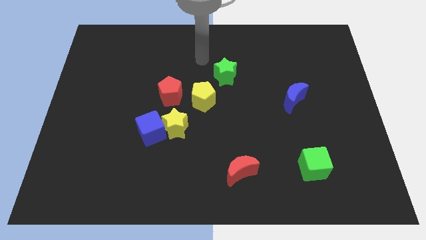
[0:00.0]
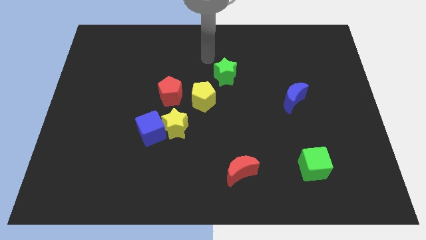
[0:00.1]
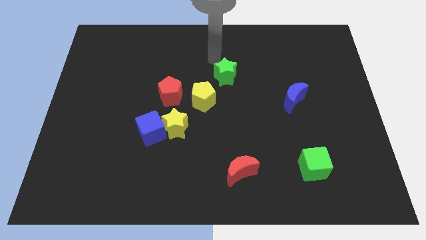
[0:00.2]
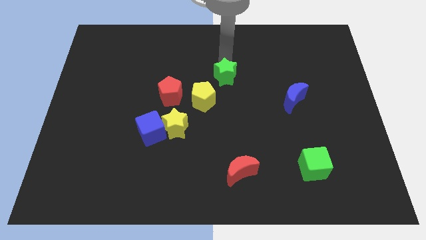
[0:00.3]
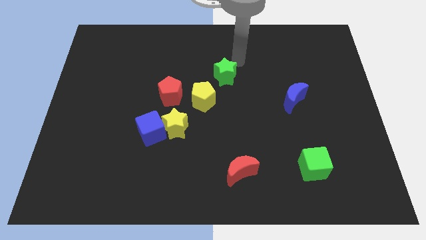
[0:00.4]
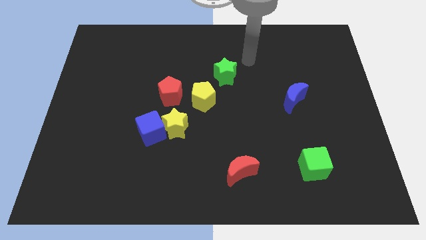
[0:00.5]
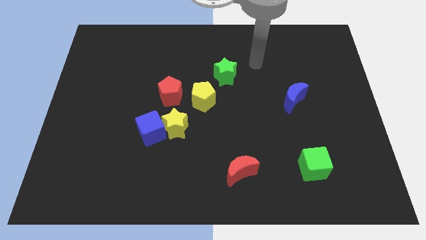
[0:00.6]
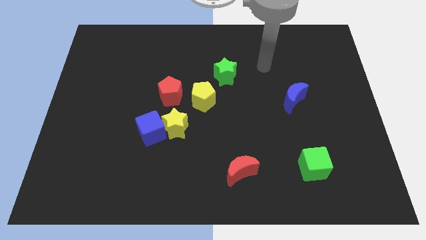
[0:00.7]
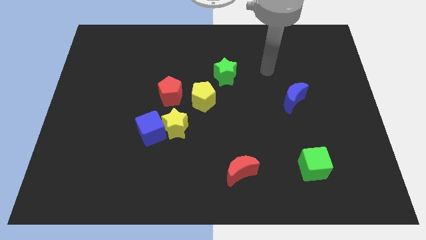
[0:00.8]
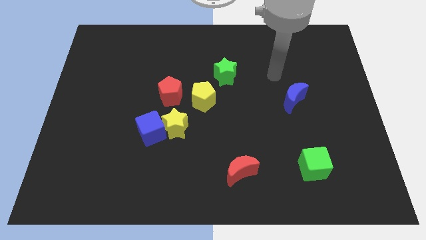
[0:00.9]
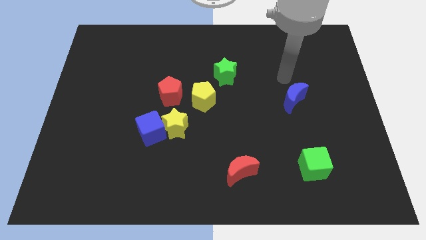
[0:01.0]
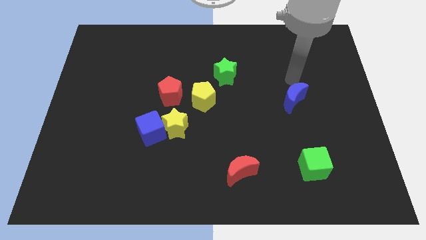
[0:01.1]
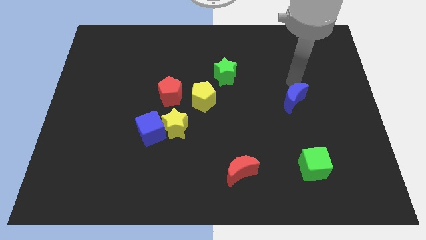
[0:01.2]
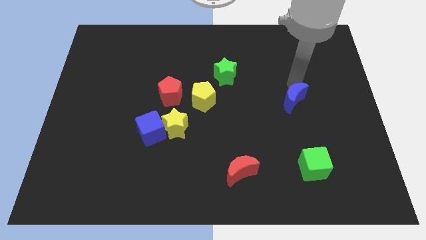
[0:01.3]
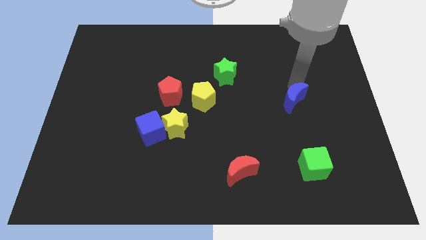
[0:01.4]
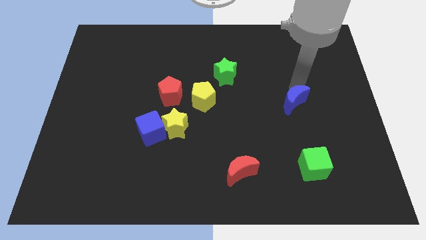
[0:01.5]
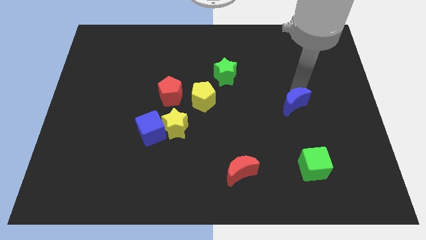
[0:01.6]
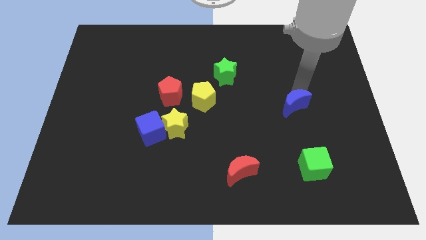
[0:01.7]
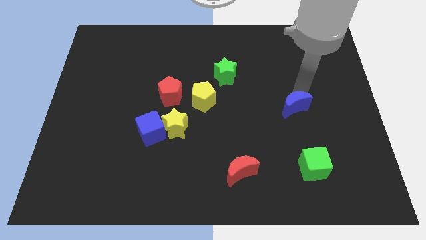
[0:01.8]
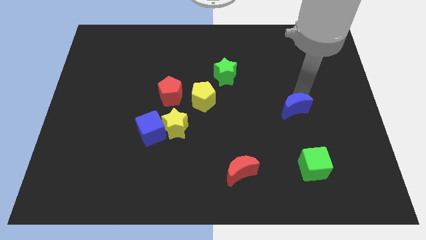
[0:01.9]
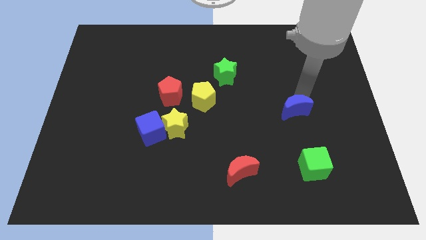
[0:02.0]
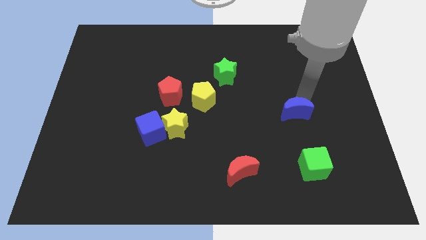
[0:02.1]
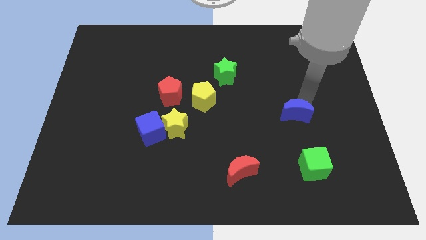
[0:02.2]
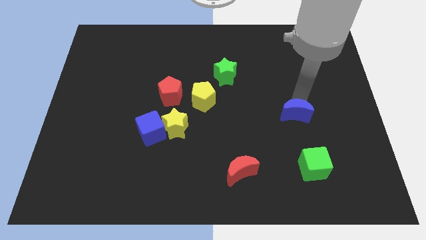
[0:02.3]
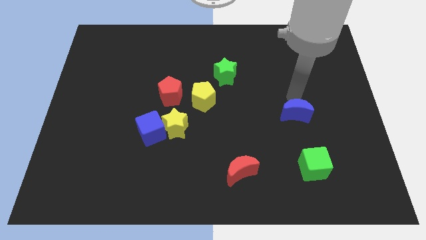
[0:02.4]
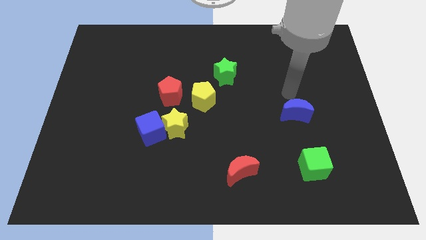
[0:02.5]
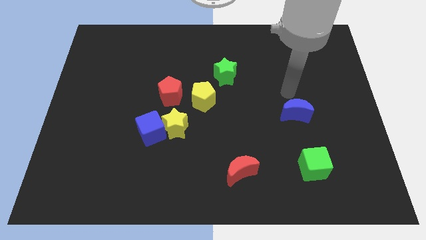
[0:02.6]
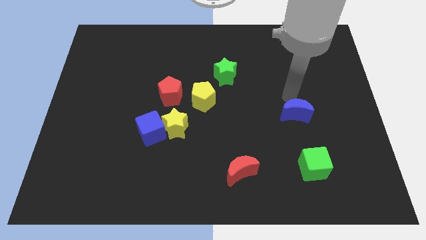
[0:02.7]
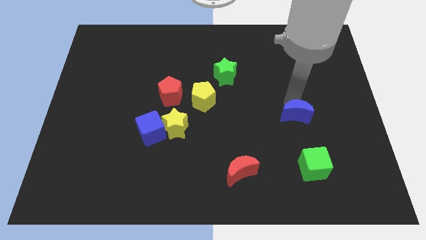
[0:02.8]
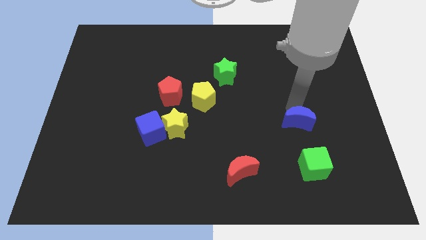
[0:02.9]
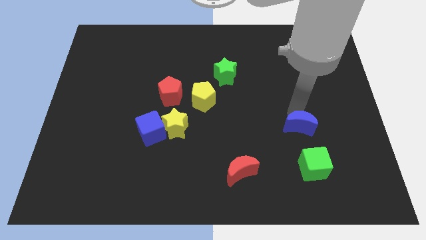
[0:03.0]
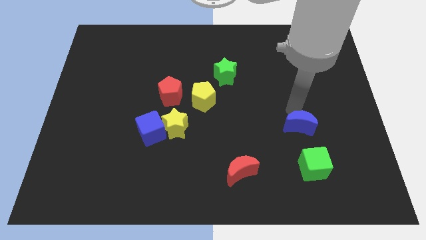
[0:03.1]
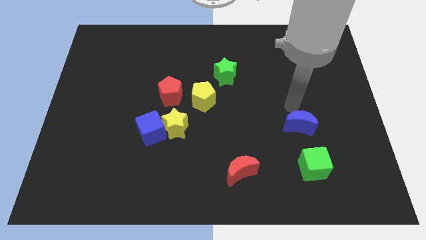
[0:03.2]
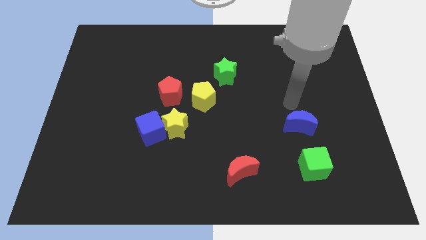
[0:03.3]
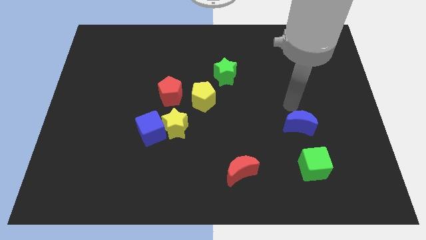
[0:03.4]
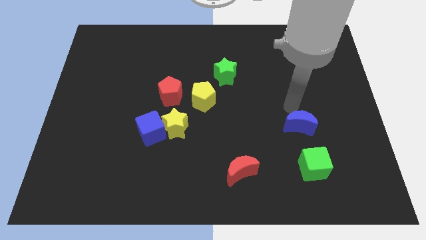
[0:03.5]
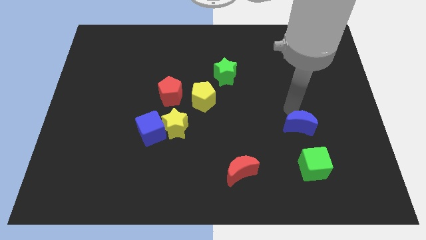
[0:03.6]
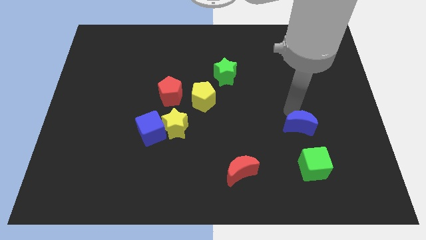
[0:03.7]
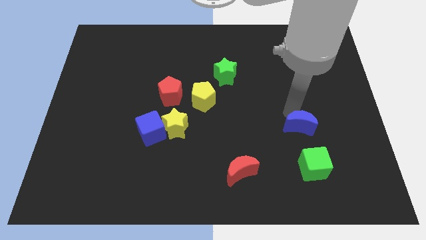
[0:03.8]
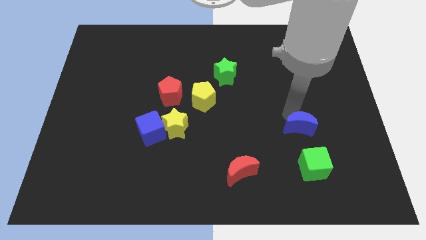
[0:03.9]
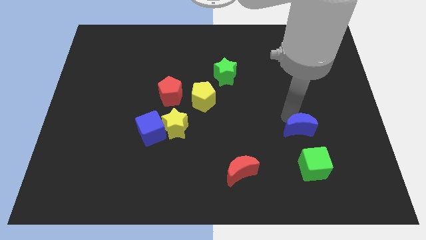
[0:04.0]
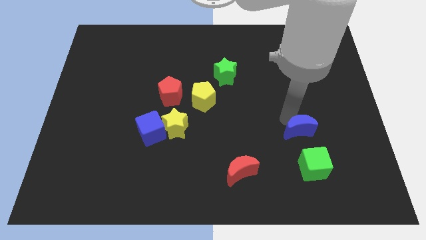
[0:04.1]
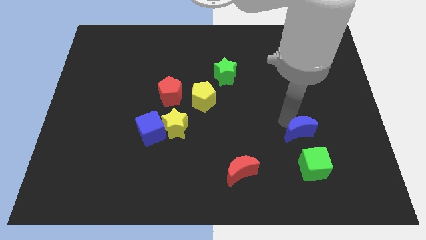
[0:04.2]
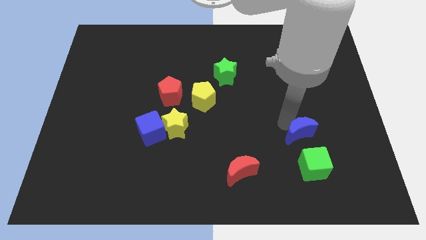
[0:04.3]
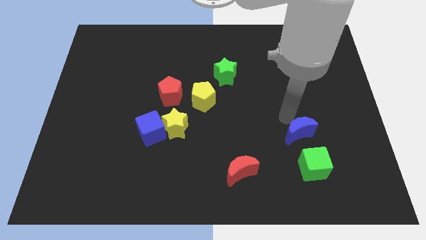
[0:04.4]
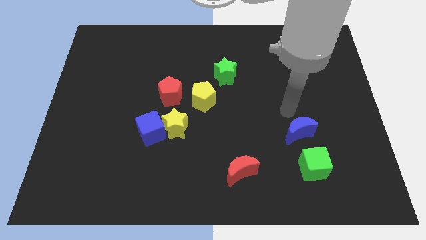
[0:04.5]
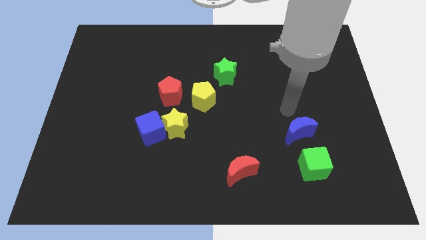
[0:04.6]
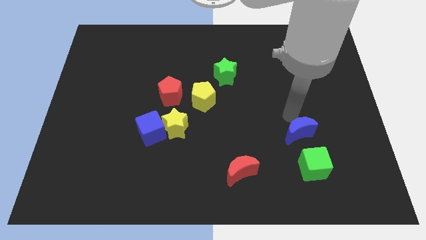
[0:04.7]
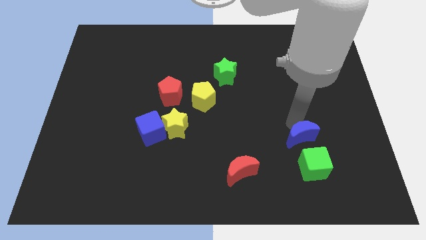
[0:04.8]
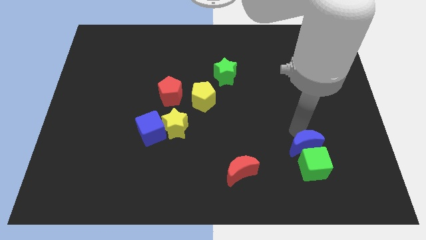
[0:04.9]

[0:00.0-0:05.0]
slide the blue moon close to the green cube

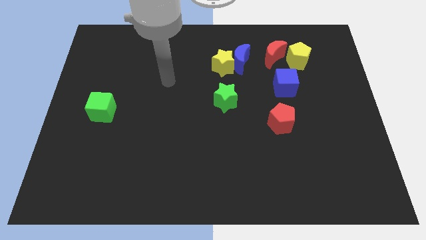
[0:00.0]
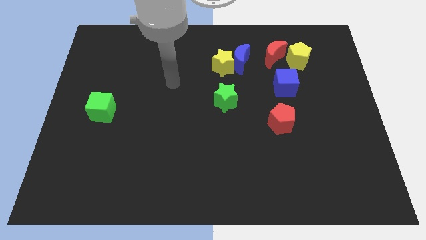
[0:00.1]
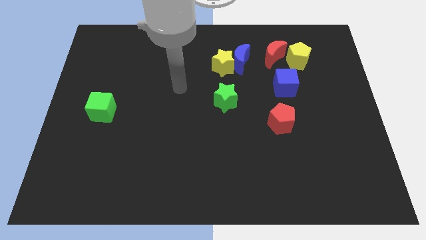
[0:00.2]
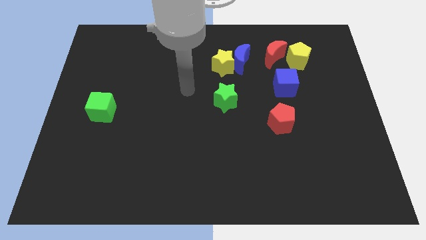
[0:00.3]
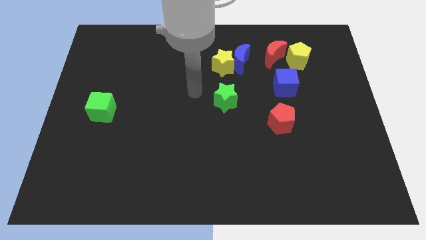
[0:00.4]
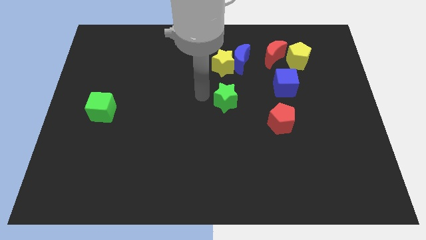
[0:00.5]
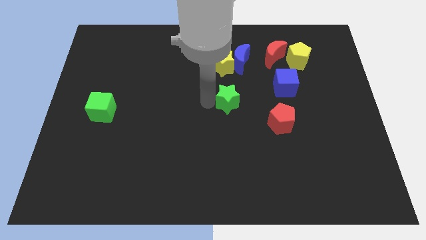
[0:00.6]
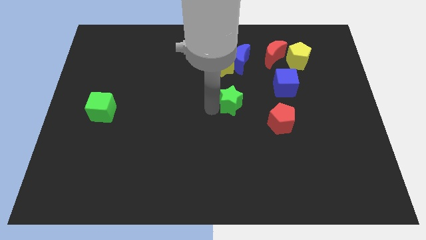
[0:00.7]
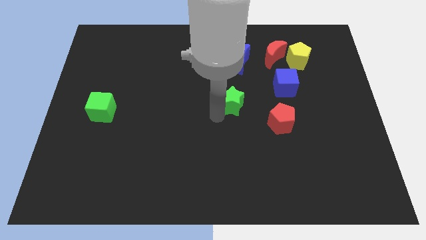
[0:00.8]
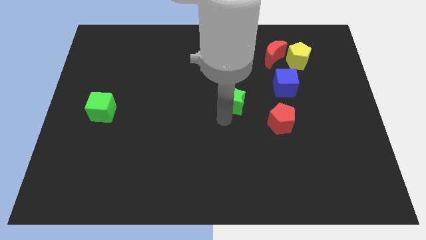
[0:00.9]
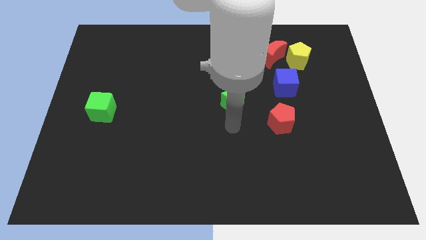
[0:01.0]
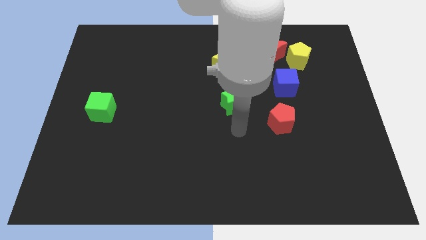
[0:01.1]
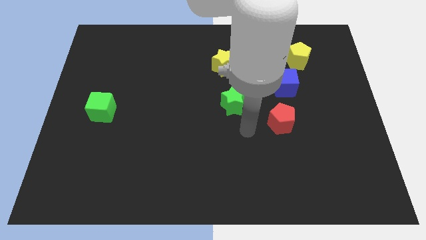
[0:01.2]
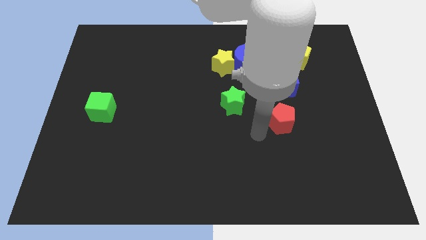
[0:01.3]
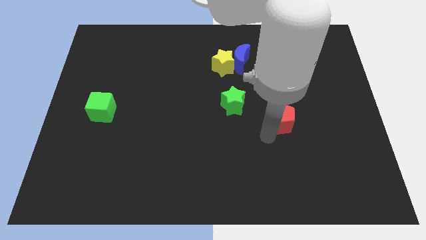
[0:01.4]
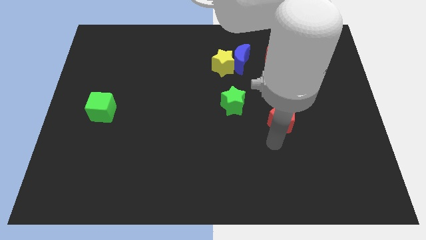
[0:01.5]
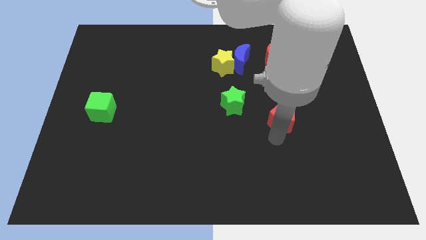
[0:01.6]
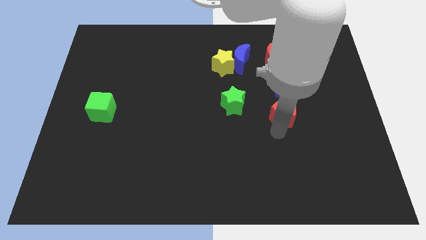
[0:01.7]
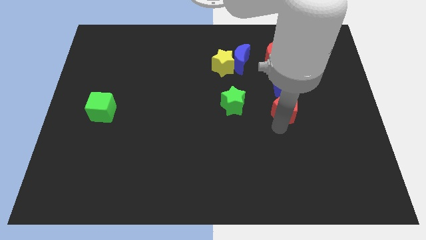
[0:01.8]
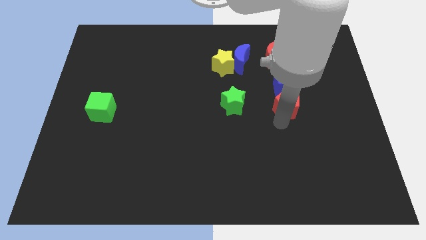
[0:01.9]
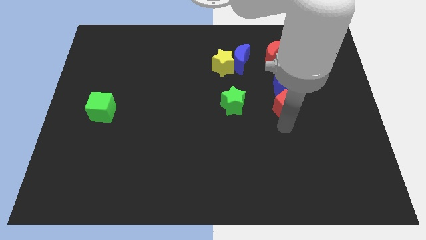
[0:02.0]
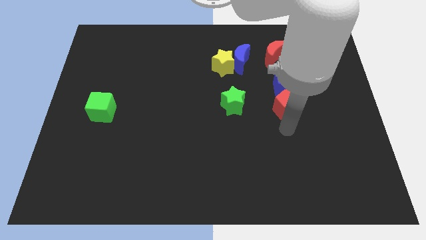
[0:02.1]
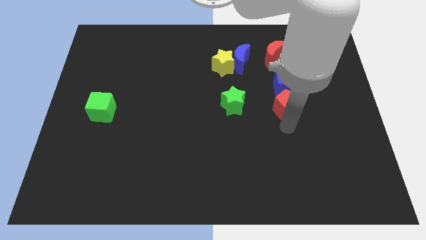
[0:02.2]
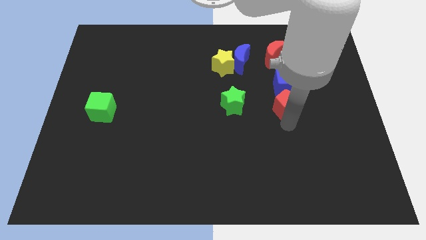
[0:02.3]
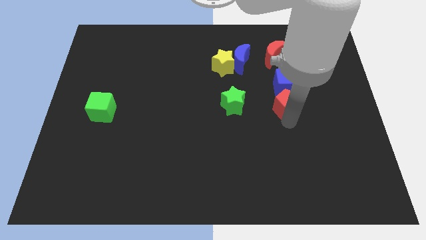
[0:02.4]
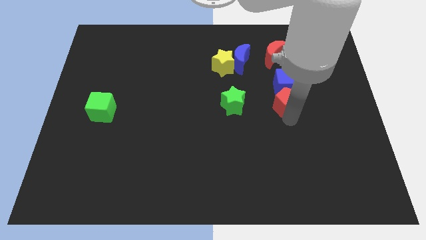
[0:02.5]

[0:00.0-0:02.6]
move the red pentagon to the blue cube
